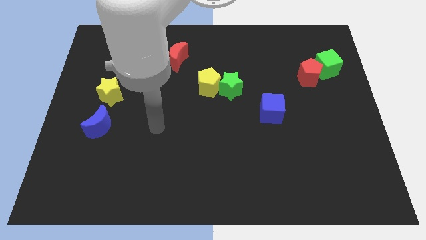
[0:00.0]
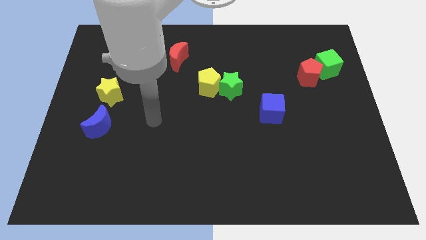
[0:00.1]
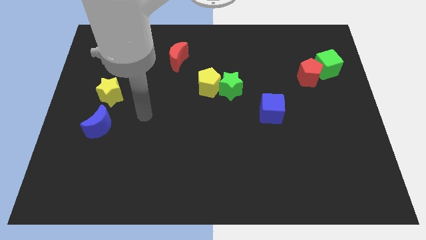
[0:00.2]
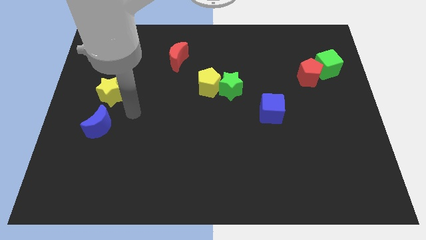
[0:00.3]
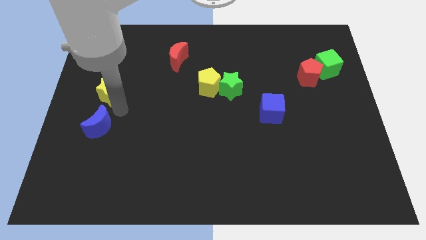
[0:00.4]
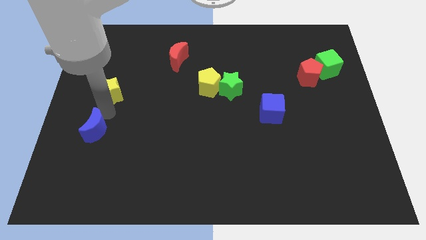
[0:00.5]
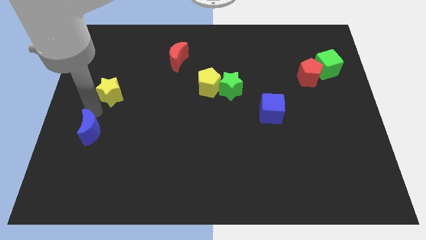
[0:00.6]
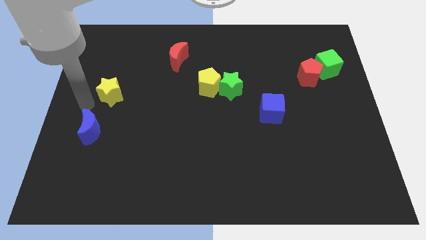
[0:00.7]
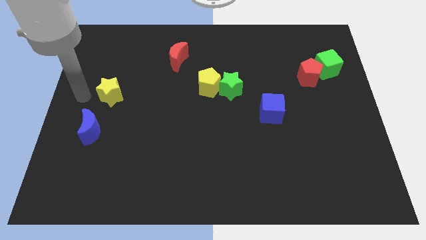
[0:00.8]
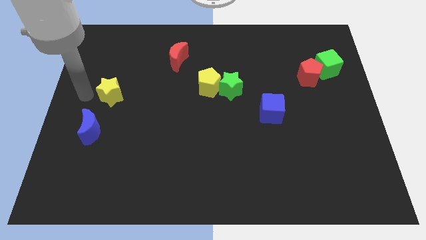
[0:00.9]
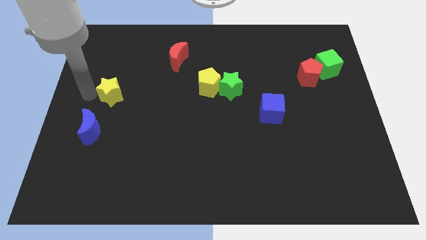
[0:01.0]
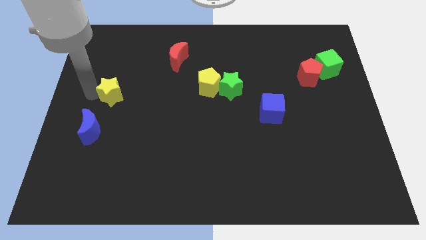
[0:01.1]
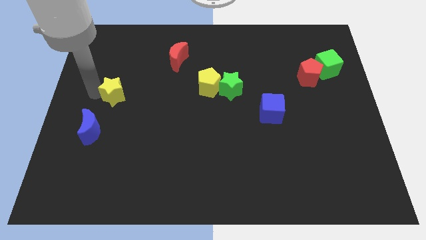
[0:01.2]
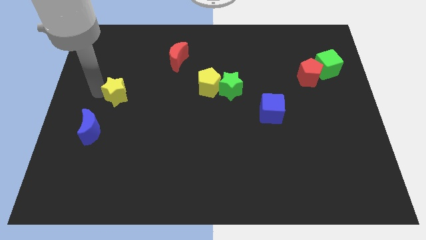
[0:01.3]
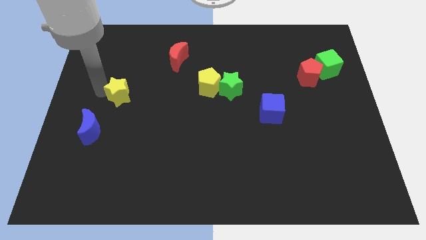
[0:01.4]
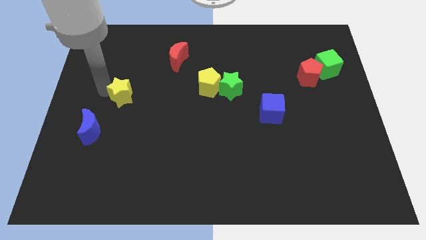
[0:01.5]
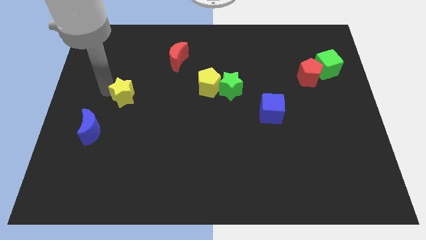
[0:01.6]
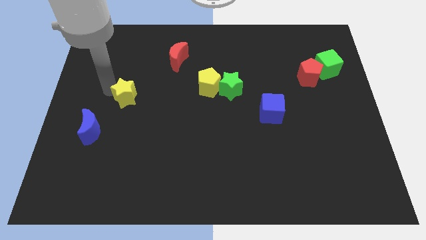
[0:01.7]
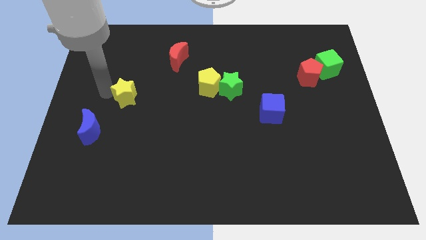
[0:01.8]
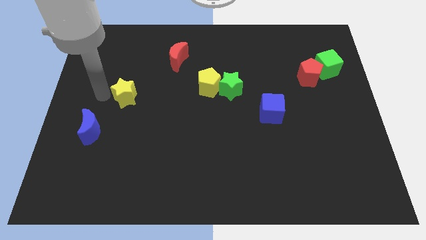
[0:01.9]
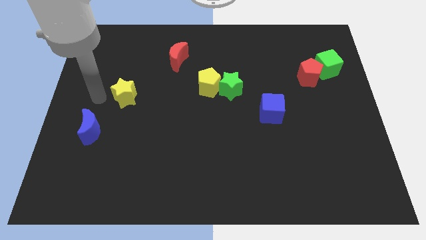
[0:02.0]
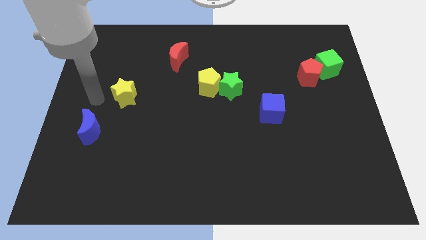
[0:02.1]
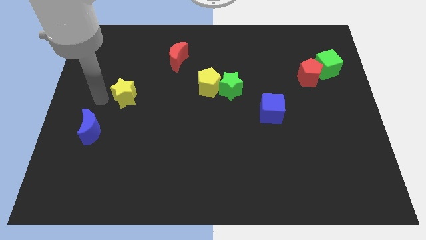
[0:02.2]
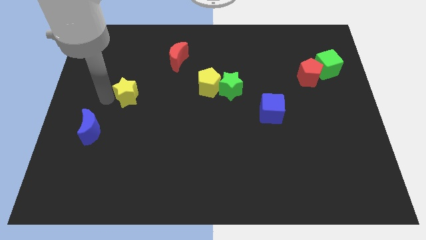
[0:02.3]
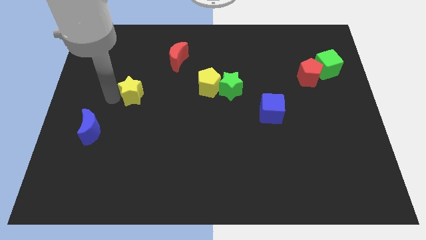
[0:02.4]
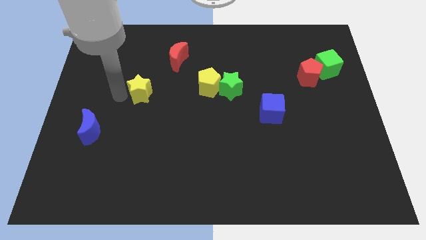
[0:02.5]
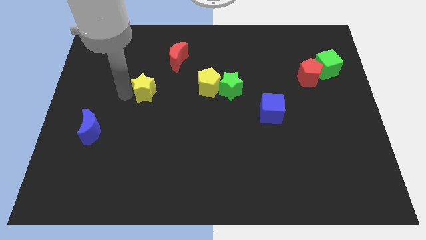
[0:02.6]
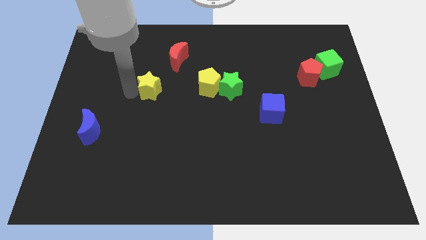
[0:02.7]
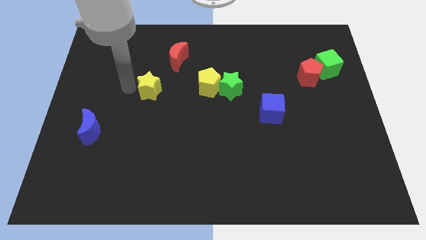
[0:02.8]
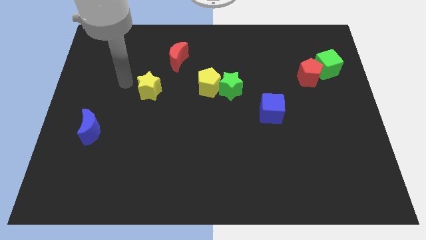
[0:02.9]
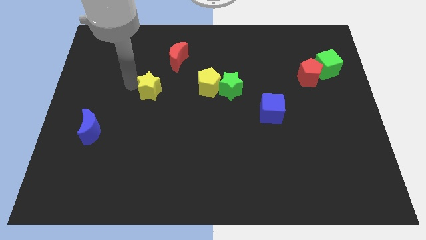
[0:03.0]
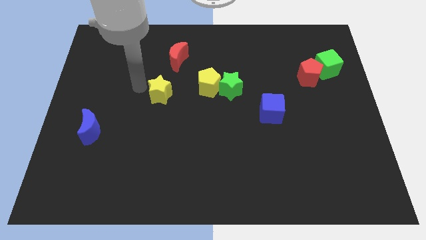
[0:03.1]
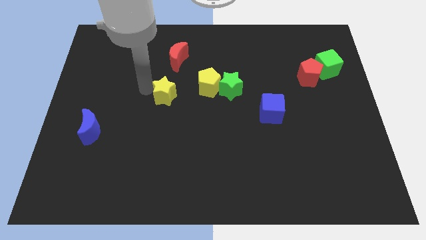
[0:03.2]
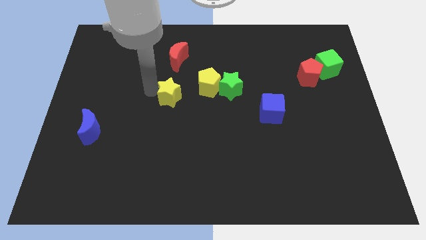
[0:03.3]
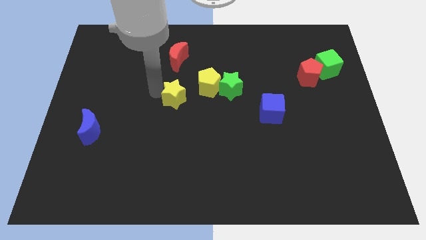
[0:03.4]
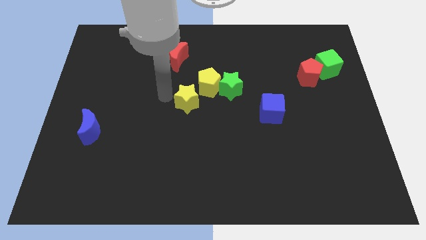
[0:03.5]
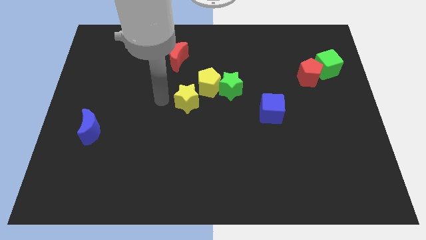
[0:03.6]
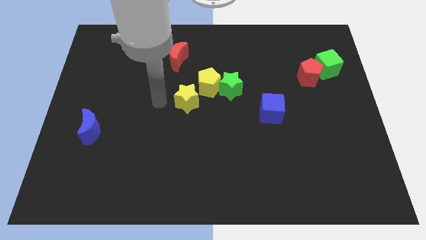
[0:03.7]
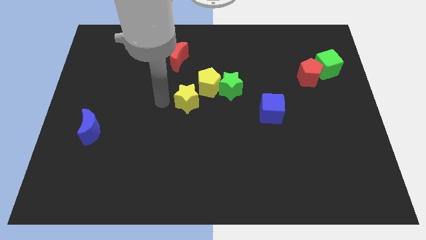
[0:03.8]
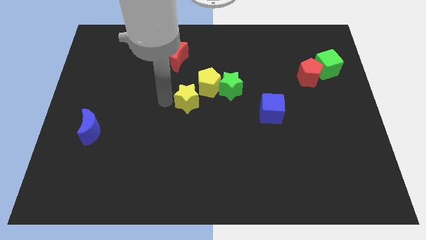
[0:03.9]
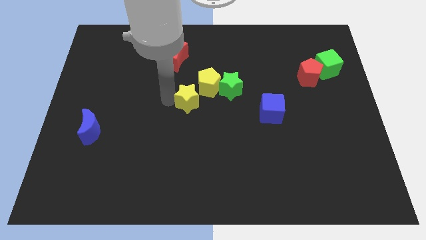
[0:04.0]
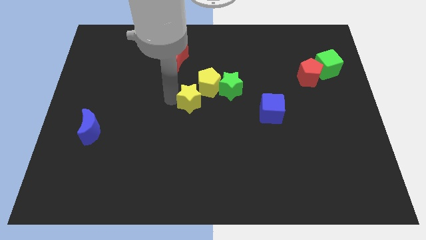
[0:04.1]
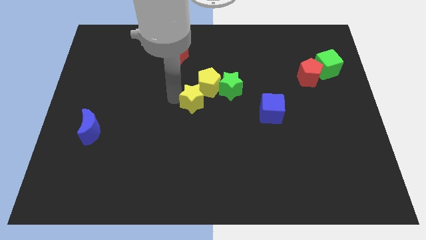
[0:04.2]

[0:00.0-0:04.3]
slide the yellow star to the right

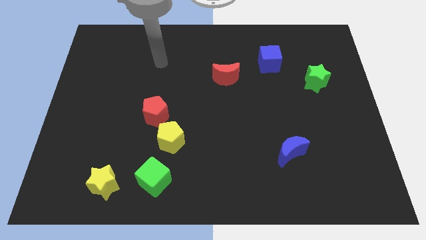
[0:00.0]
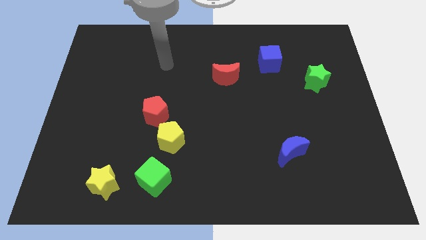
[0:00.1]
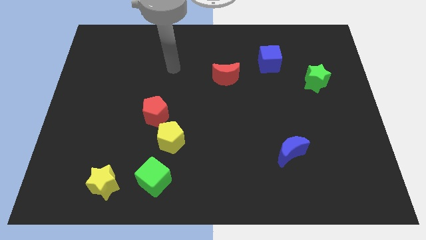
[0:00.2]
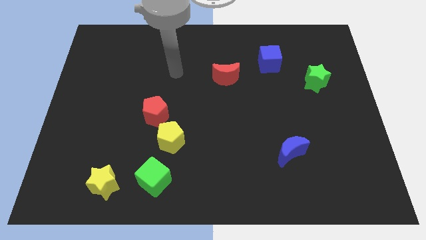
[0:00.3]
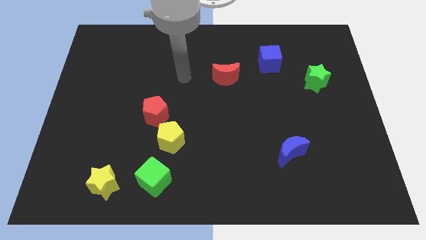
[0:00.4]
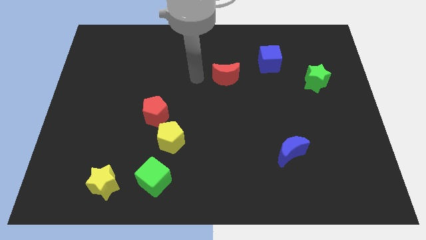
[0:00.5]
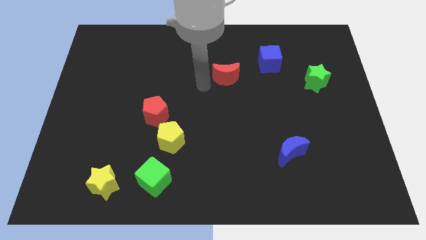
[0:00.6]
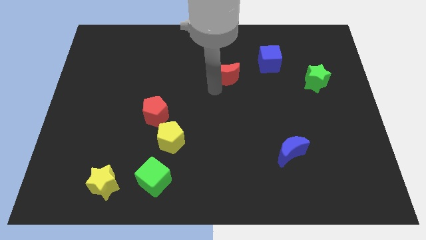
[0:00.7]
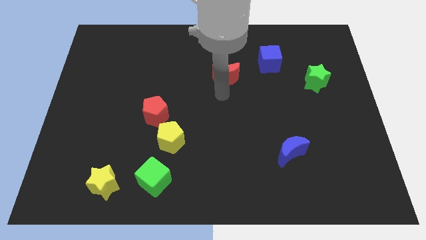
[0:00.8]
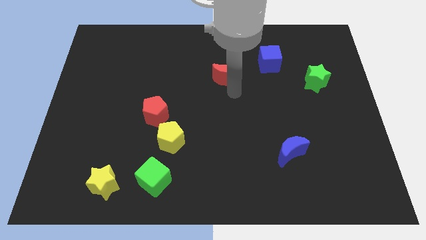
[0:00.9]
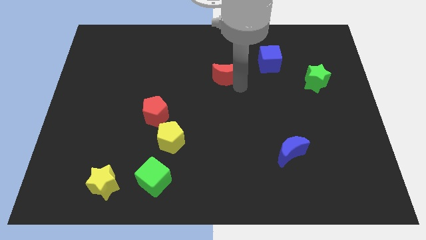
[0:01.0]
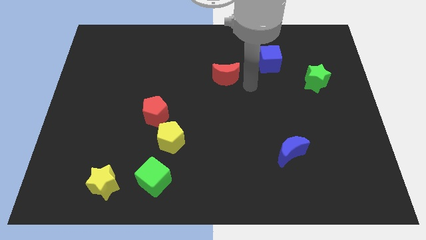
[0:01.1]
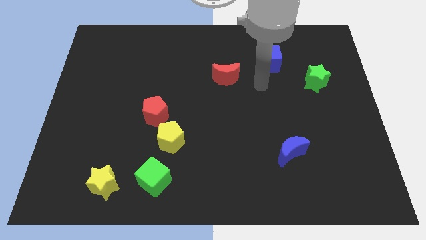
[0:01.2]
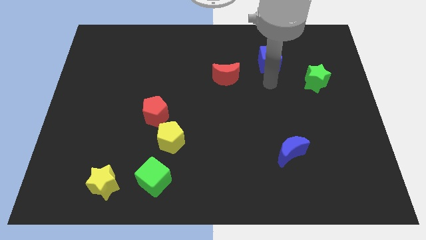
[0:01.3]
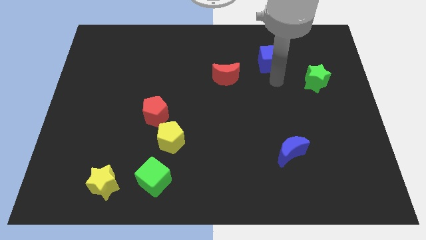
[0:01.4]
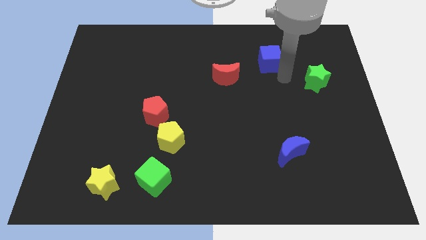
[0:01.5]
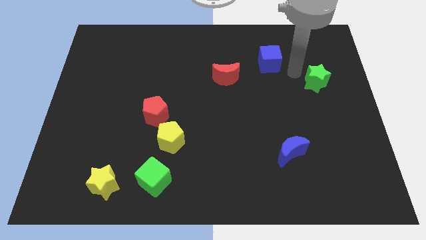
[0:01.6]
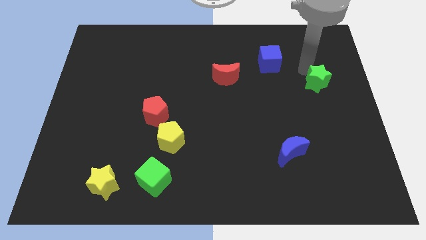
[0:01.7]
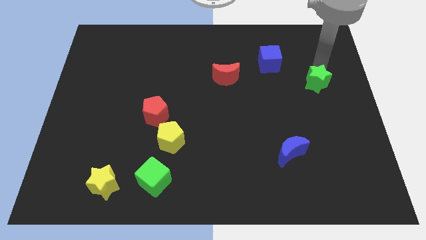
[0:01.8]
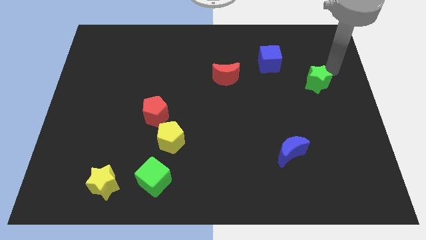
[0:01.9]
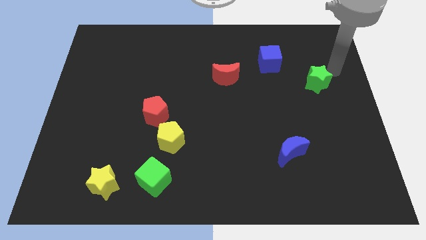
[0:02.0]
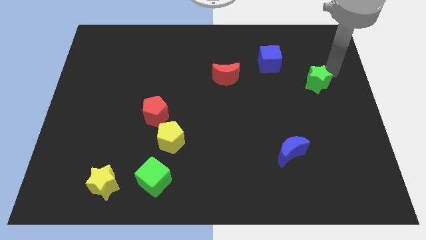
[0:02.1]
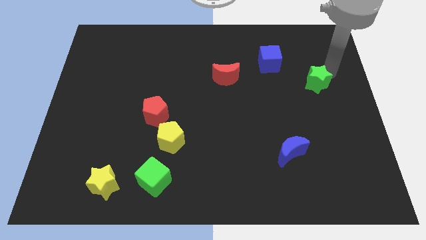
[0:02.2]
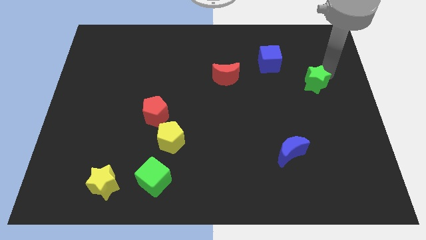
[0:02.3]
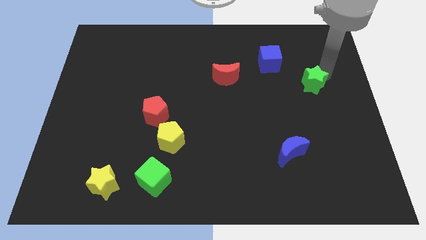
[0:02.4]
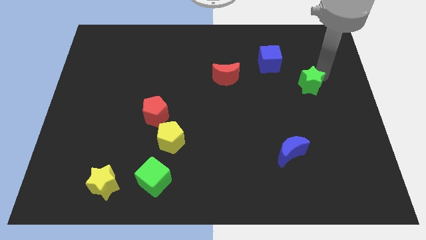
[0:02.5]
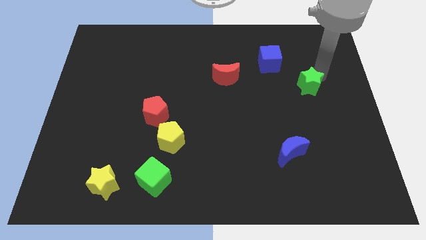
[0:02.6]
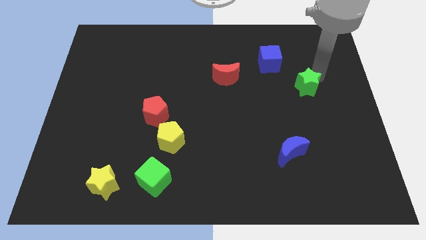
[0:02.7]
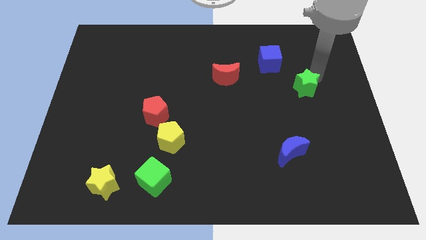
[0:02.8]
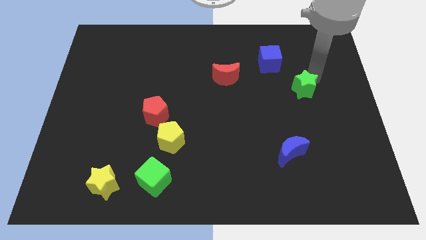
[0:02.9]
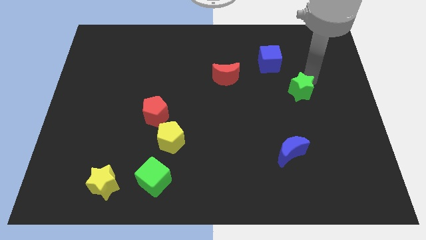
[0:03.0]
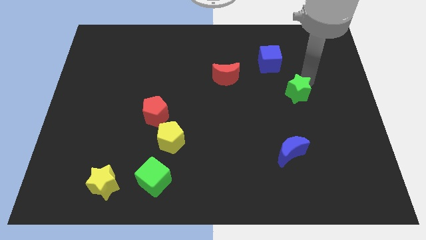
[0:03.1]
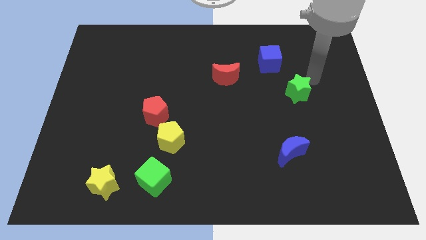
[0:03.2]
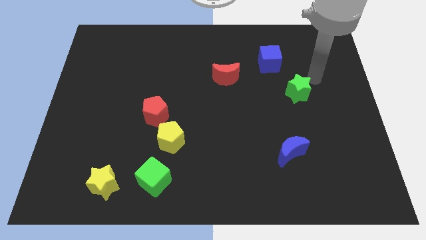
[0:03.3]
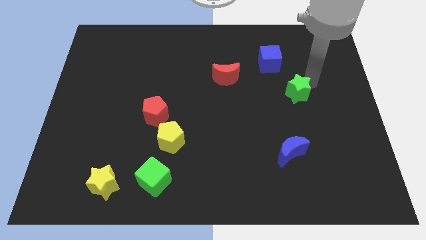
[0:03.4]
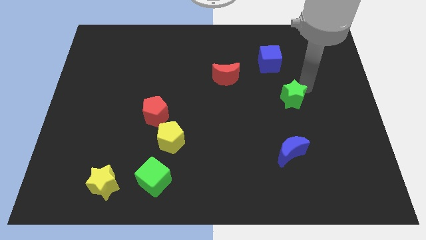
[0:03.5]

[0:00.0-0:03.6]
move the green star a little bit downwards and to the left

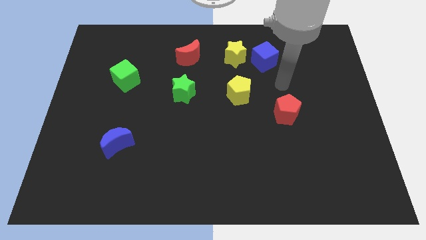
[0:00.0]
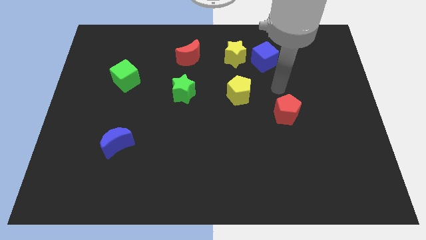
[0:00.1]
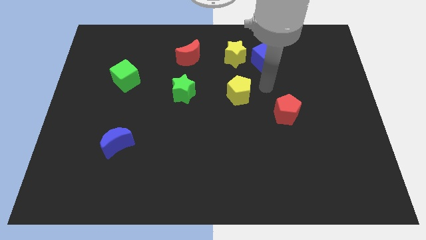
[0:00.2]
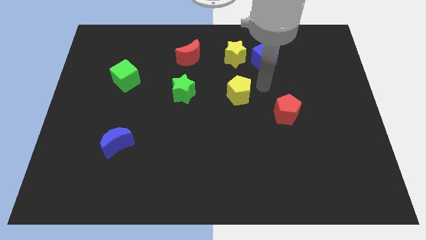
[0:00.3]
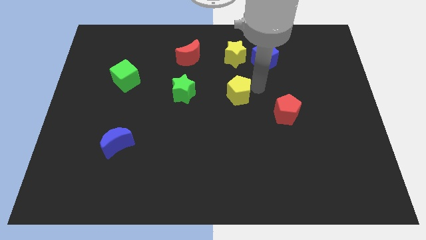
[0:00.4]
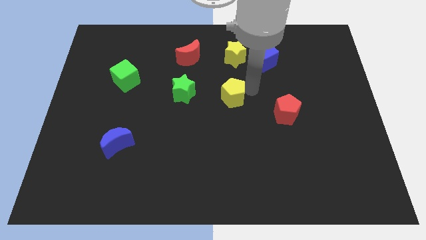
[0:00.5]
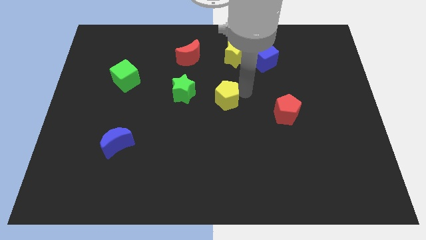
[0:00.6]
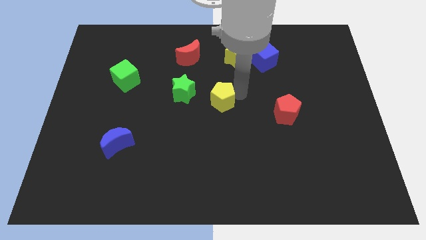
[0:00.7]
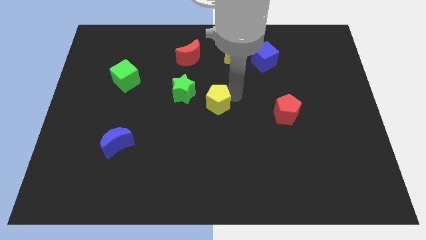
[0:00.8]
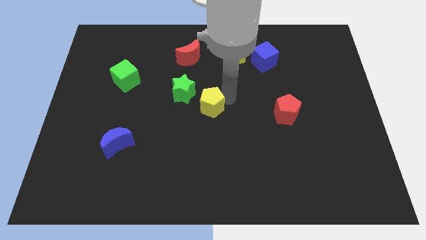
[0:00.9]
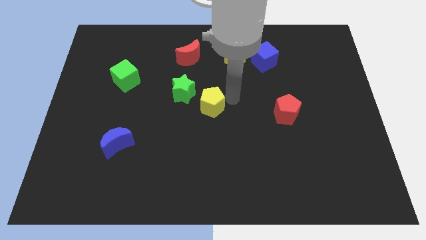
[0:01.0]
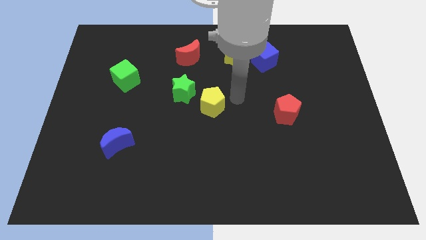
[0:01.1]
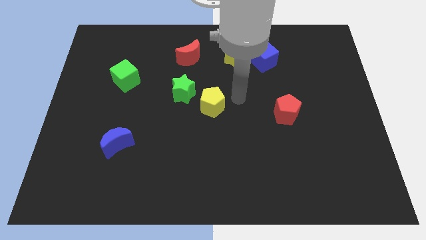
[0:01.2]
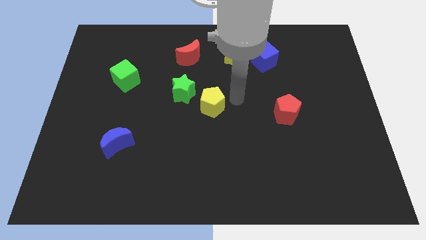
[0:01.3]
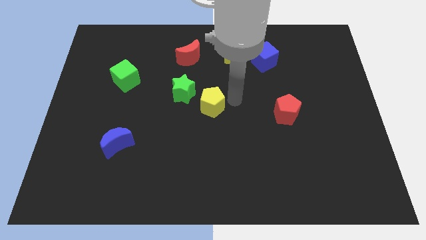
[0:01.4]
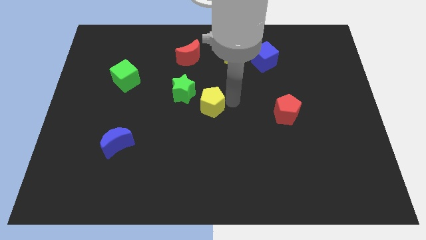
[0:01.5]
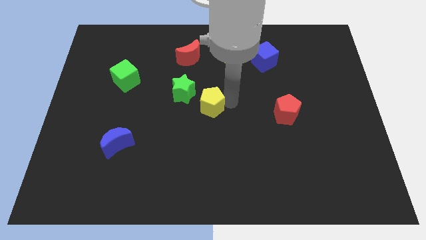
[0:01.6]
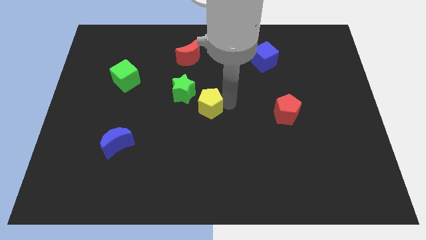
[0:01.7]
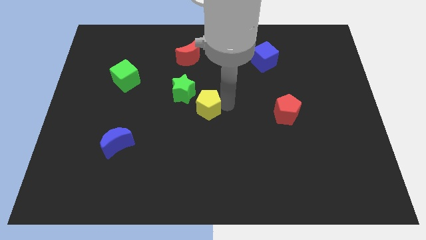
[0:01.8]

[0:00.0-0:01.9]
push the yellow pentagon a little left
